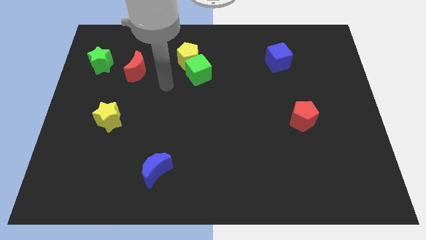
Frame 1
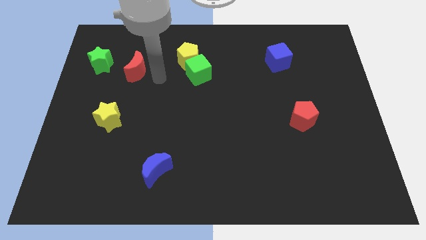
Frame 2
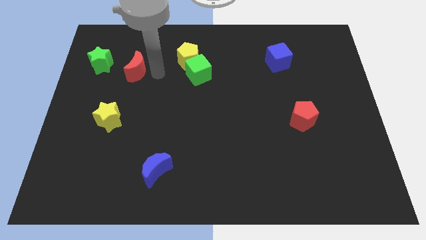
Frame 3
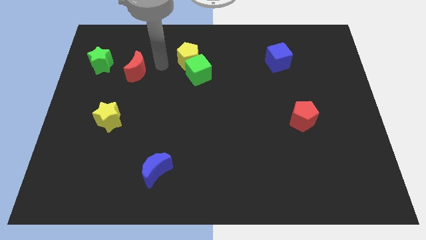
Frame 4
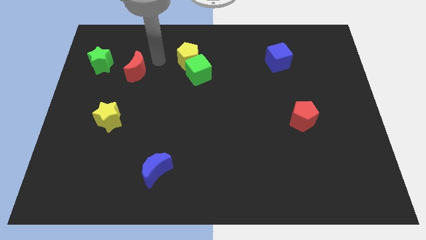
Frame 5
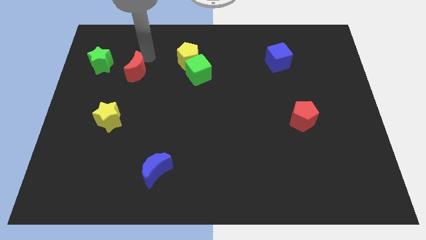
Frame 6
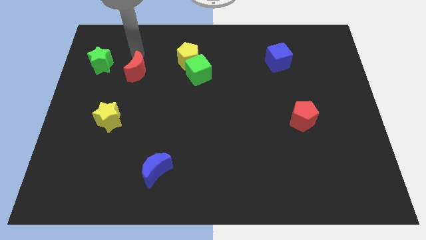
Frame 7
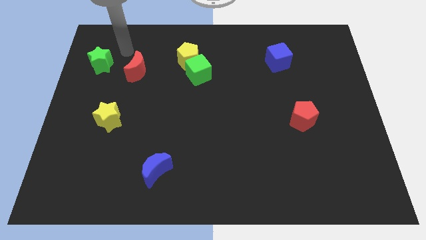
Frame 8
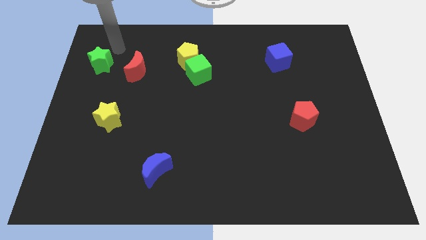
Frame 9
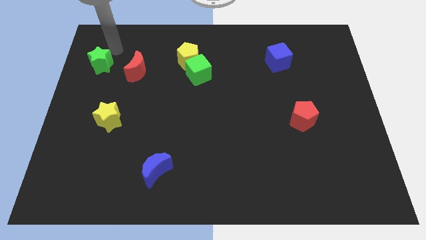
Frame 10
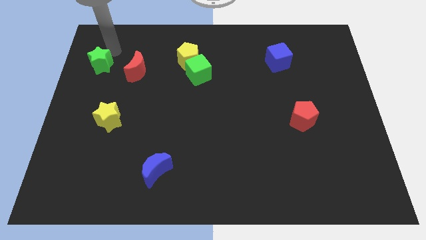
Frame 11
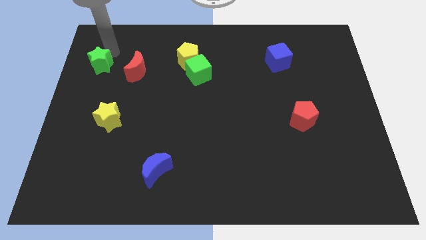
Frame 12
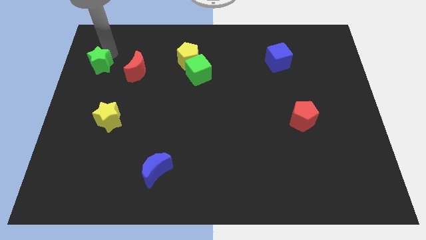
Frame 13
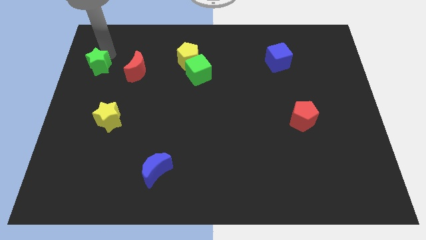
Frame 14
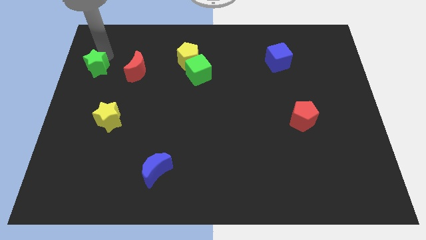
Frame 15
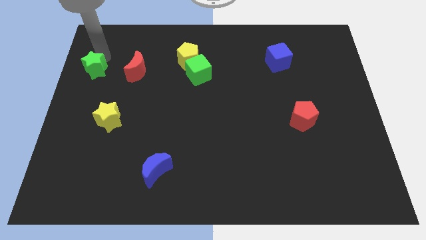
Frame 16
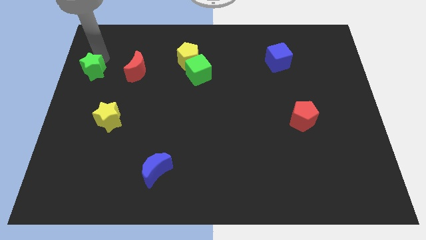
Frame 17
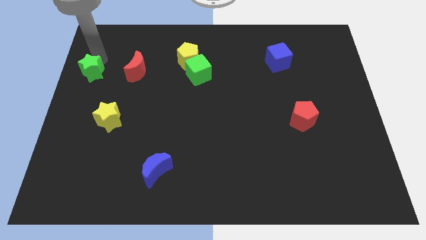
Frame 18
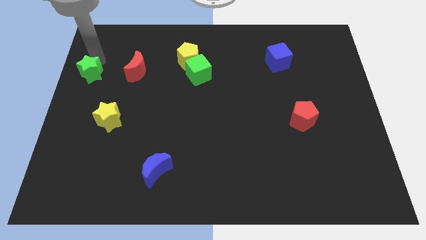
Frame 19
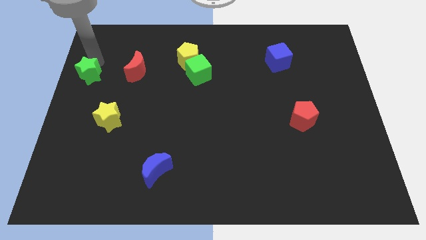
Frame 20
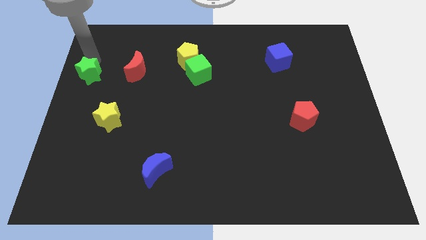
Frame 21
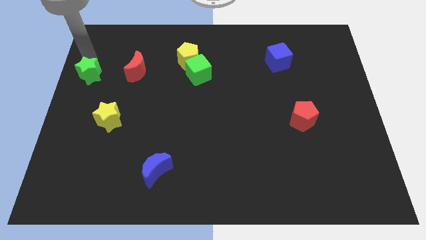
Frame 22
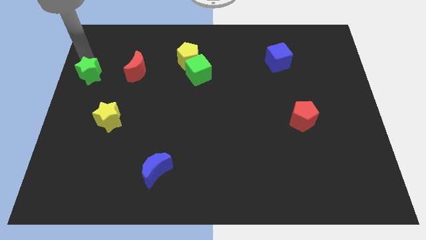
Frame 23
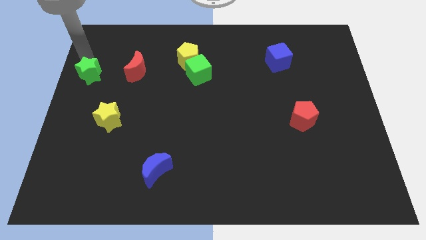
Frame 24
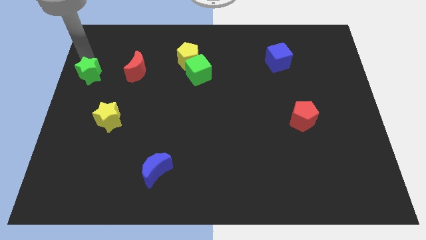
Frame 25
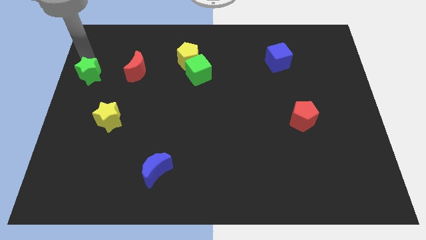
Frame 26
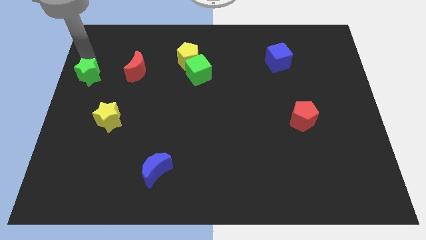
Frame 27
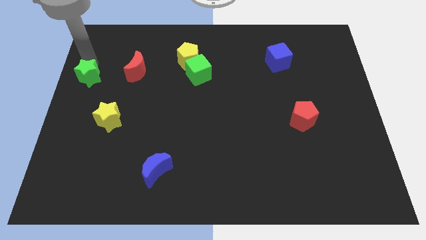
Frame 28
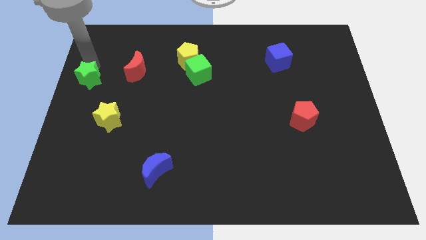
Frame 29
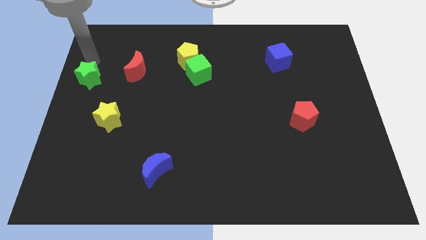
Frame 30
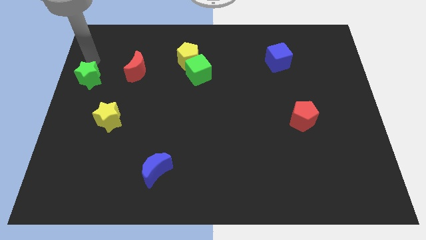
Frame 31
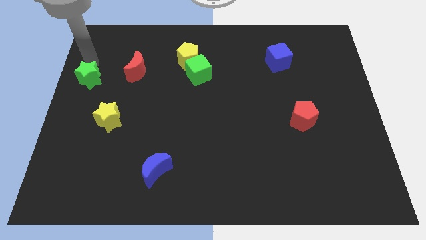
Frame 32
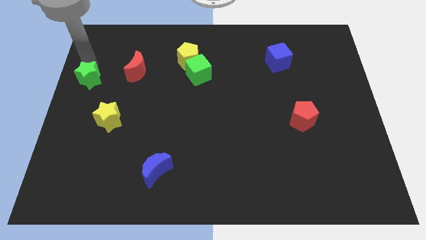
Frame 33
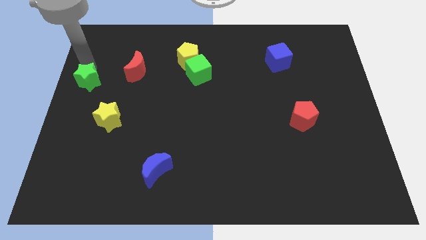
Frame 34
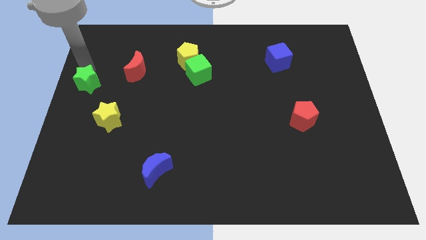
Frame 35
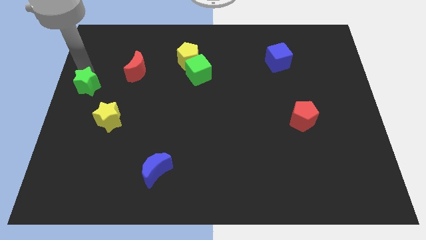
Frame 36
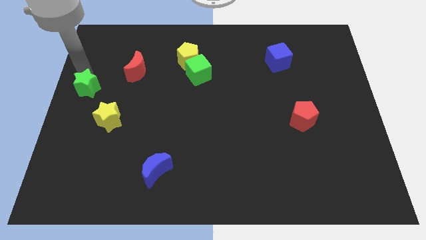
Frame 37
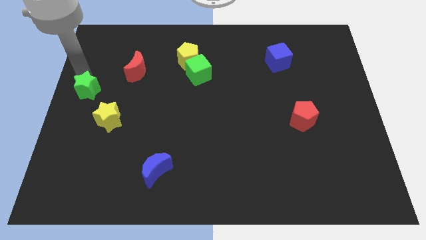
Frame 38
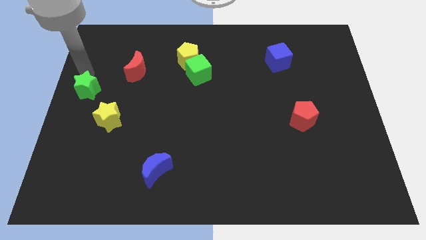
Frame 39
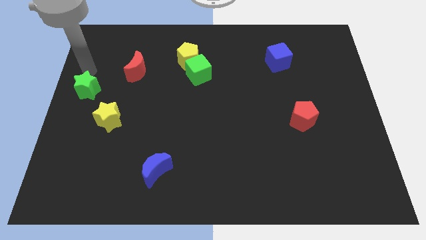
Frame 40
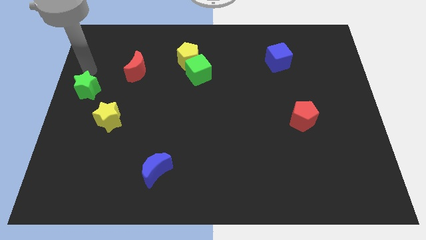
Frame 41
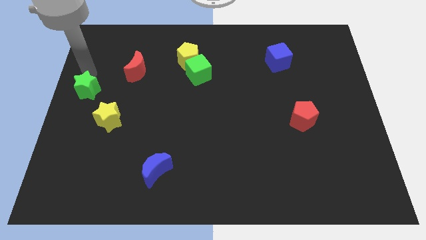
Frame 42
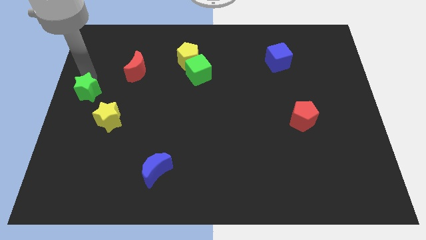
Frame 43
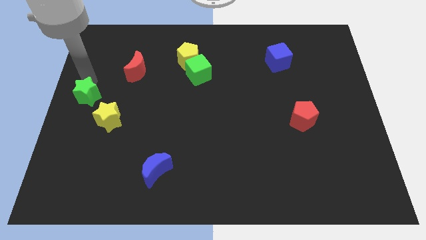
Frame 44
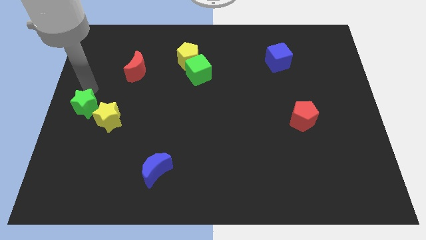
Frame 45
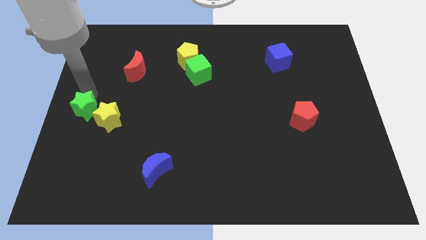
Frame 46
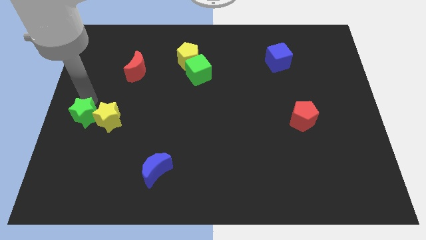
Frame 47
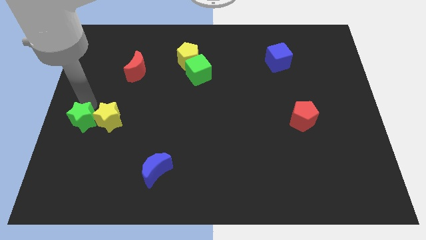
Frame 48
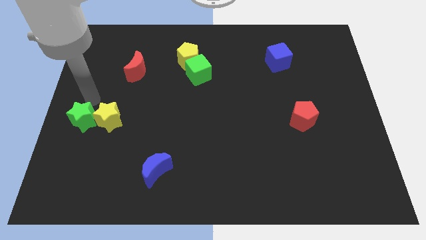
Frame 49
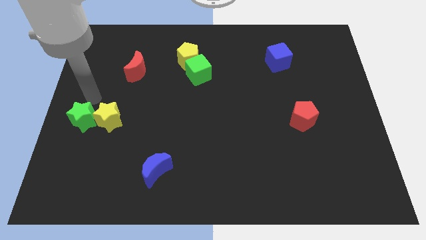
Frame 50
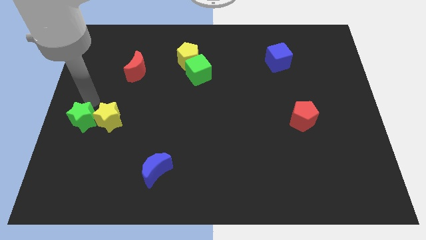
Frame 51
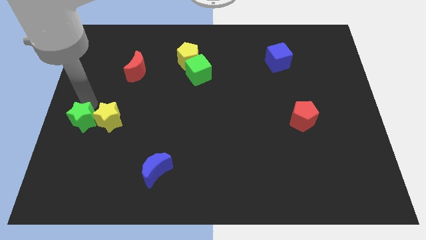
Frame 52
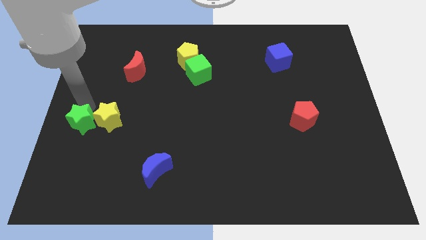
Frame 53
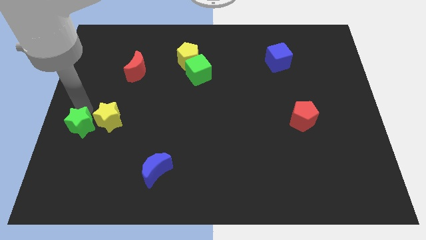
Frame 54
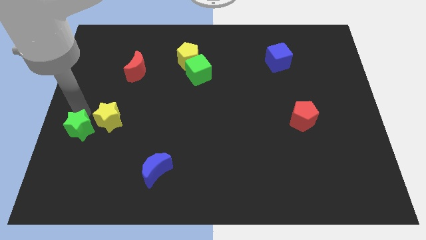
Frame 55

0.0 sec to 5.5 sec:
push the green star downwards

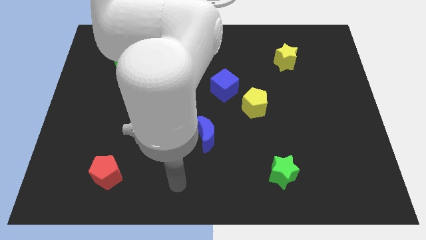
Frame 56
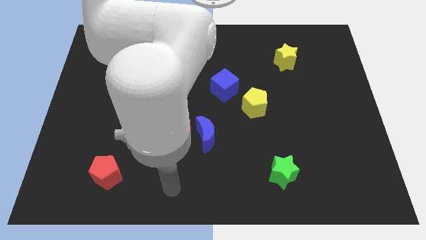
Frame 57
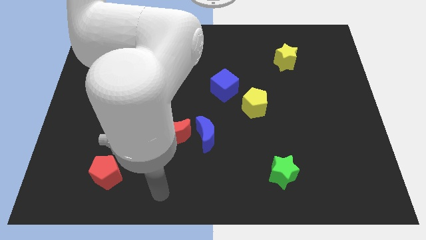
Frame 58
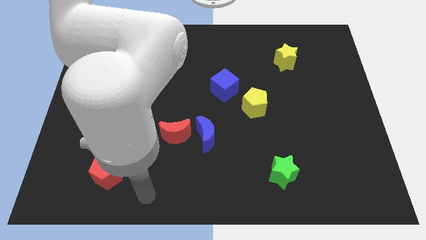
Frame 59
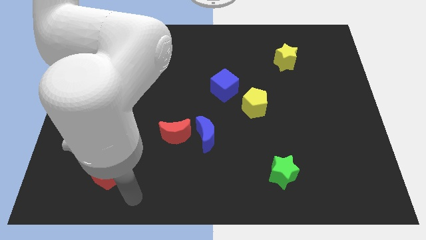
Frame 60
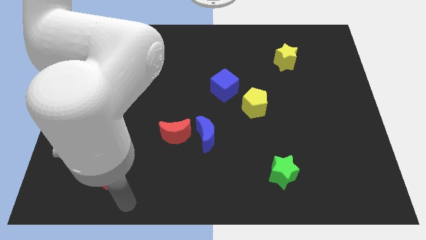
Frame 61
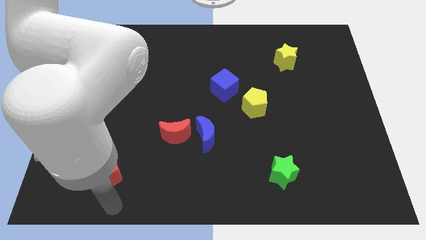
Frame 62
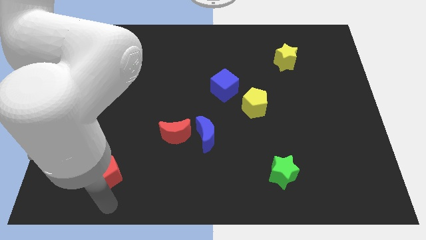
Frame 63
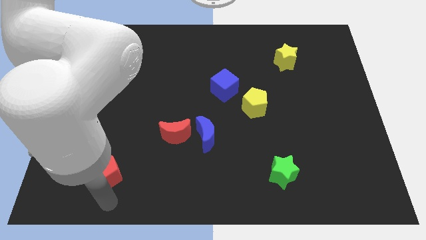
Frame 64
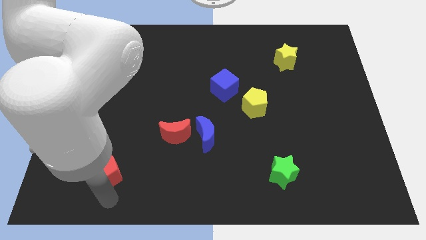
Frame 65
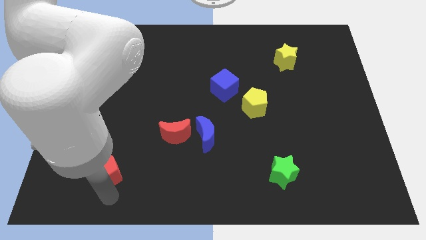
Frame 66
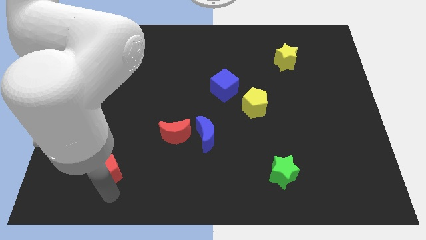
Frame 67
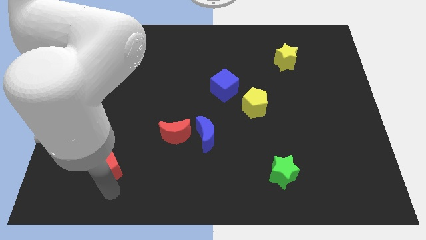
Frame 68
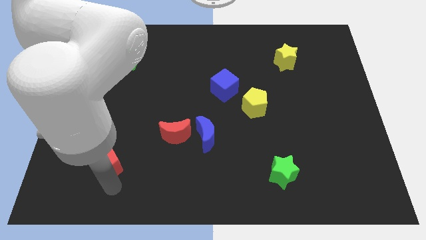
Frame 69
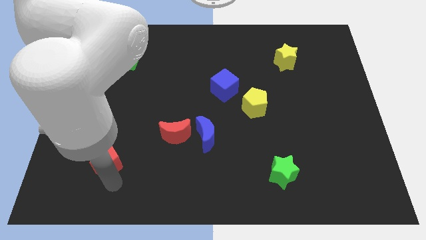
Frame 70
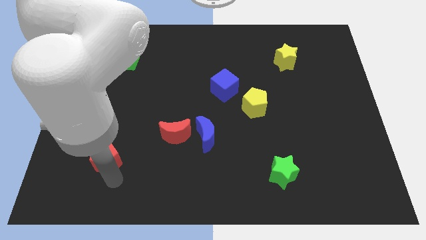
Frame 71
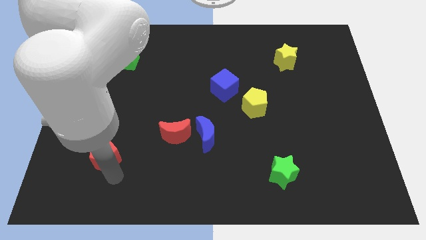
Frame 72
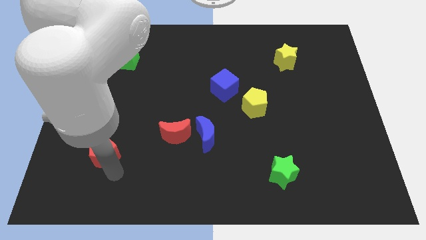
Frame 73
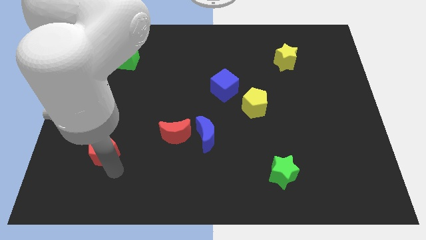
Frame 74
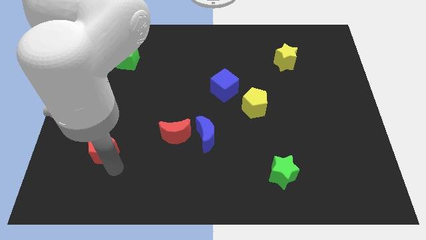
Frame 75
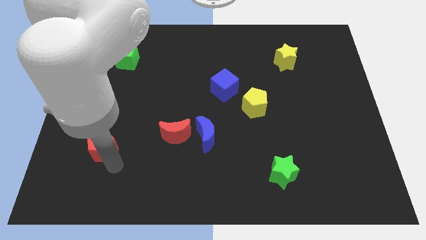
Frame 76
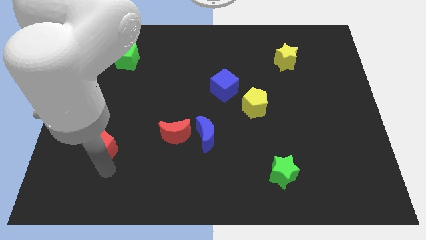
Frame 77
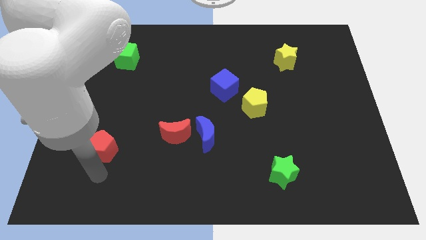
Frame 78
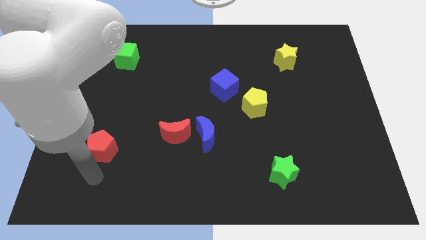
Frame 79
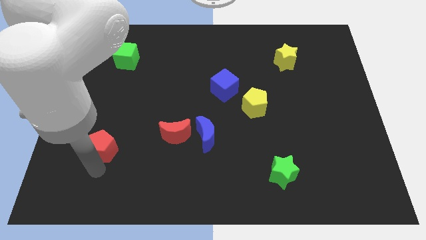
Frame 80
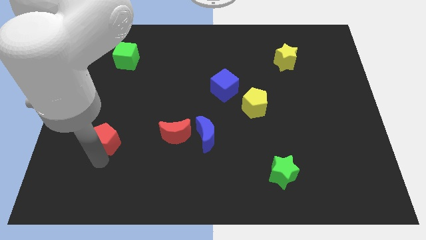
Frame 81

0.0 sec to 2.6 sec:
slightly move the red pentagon upwards
